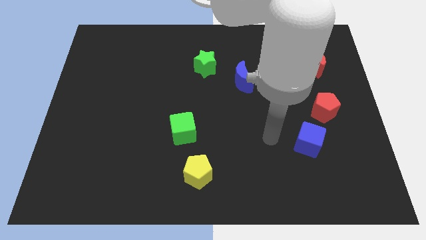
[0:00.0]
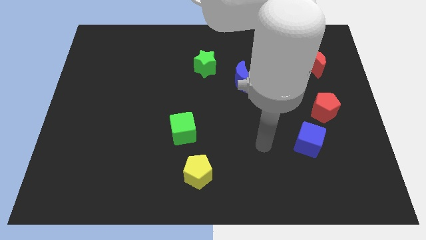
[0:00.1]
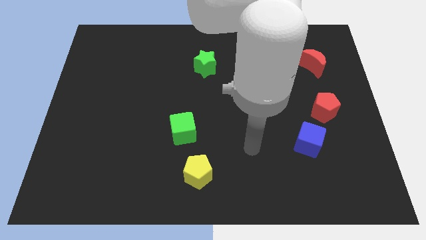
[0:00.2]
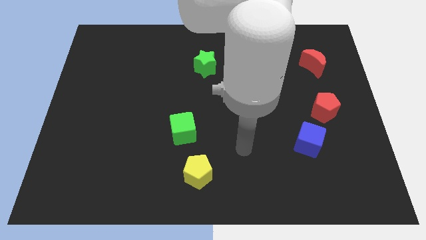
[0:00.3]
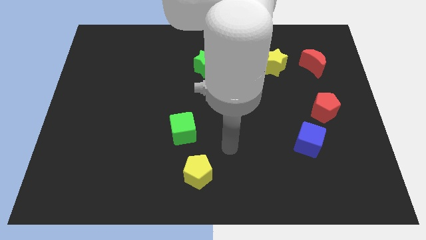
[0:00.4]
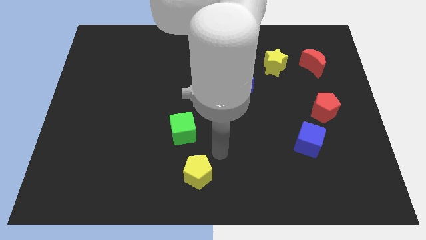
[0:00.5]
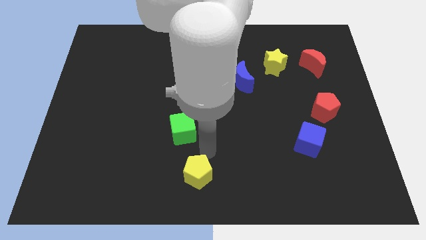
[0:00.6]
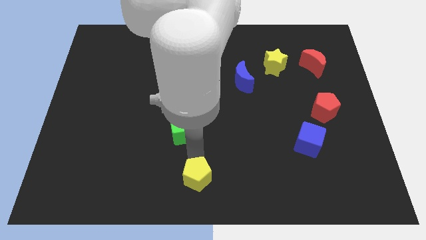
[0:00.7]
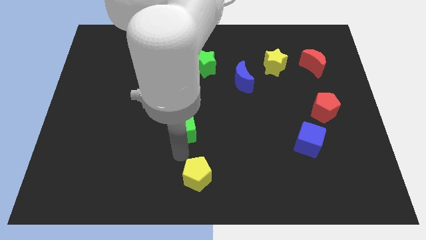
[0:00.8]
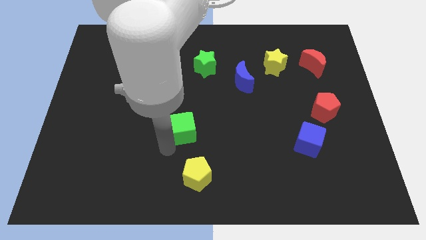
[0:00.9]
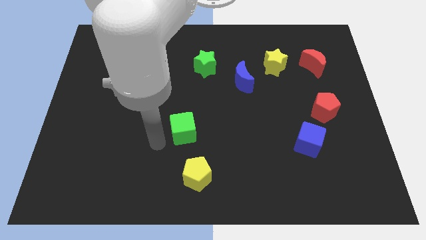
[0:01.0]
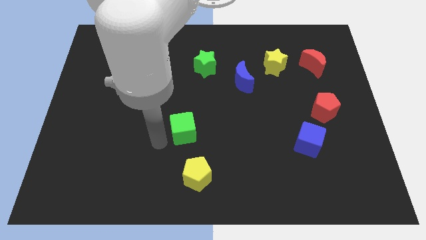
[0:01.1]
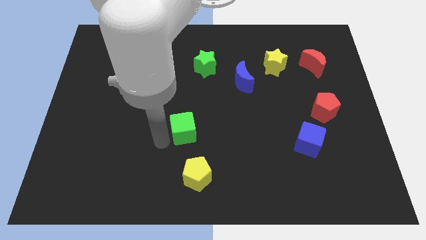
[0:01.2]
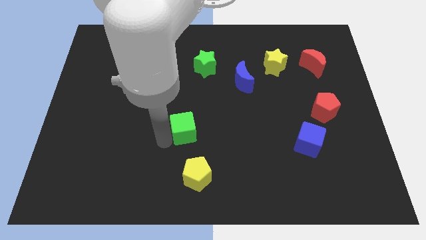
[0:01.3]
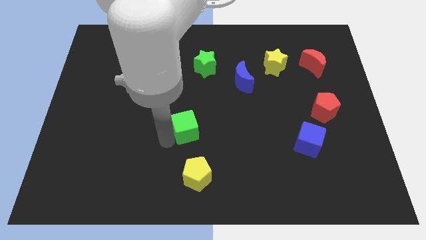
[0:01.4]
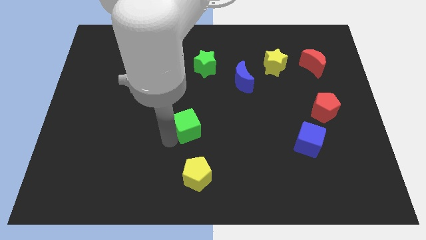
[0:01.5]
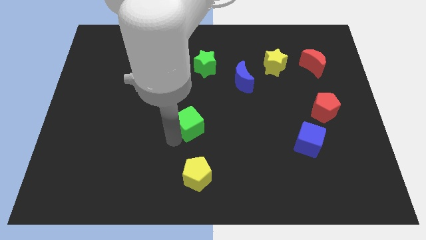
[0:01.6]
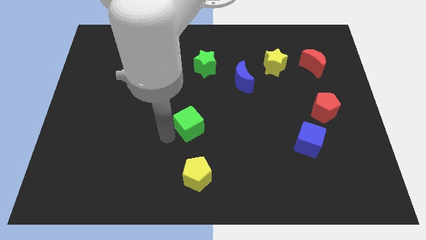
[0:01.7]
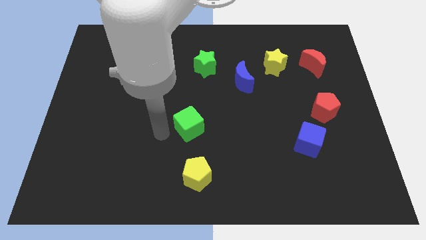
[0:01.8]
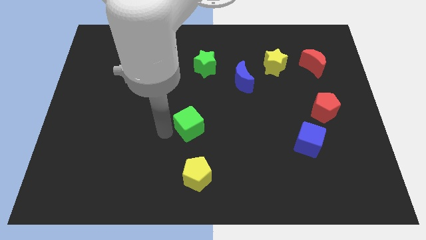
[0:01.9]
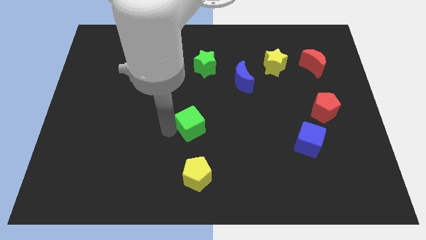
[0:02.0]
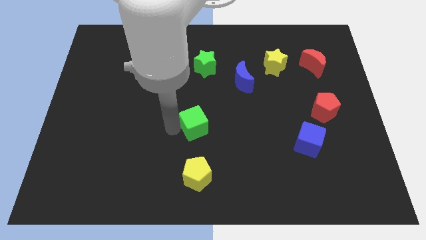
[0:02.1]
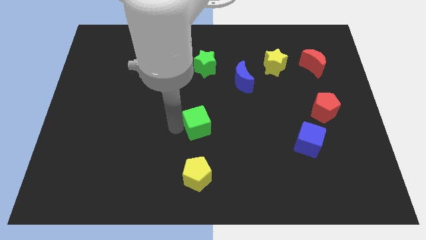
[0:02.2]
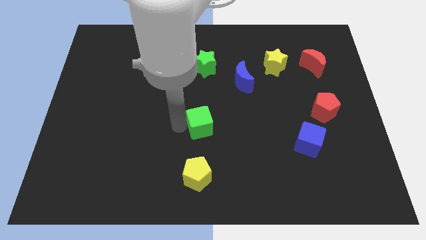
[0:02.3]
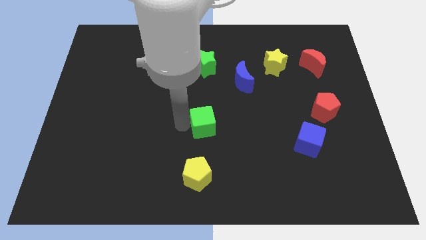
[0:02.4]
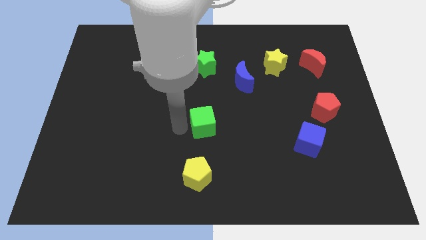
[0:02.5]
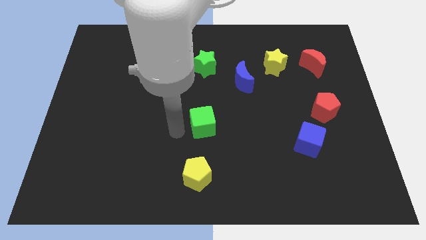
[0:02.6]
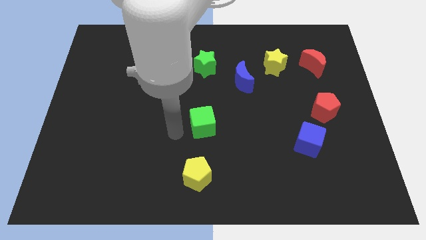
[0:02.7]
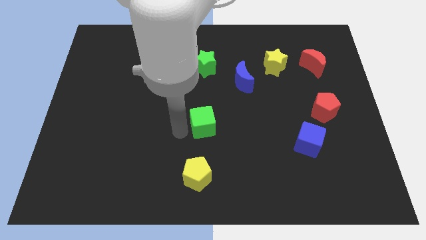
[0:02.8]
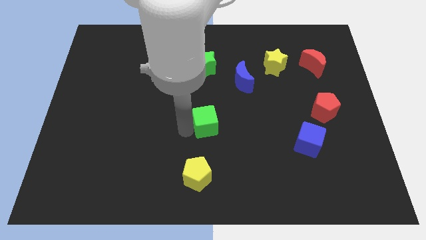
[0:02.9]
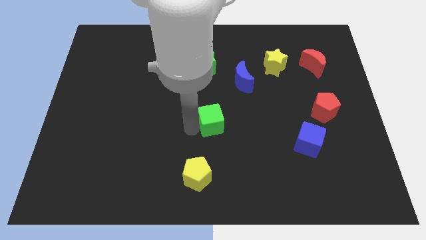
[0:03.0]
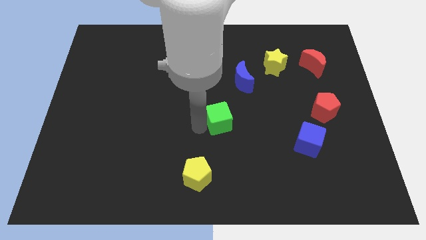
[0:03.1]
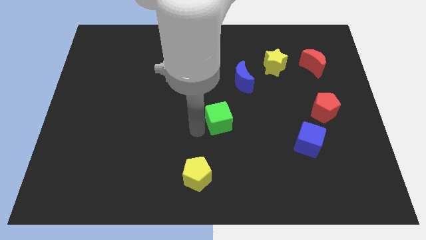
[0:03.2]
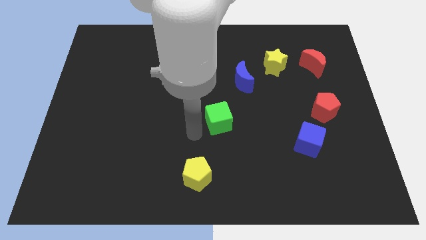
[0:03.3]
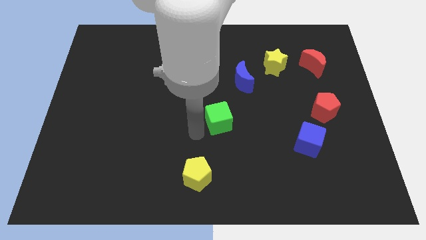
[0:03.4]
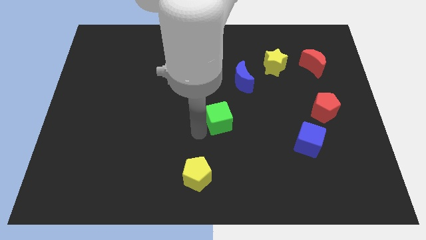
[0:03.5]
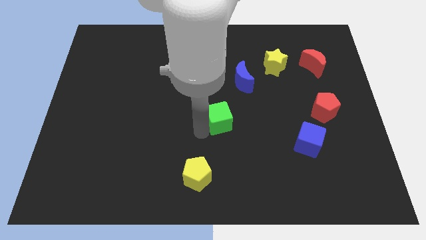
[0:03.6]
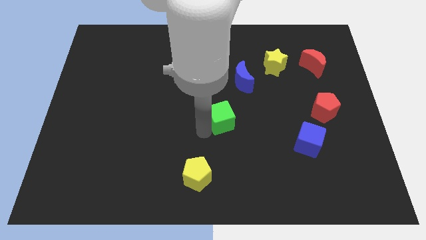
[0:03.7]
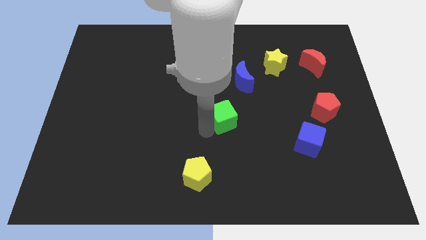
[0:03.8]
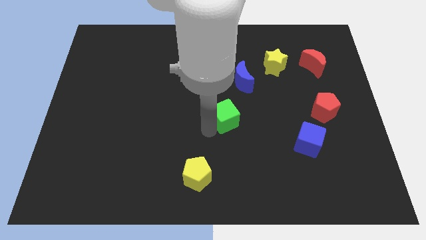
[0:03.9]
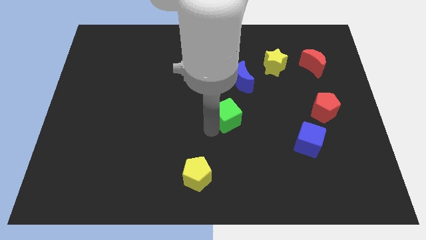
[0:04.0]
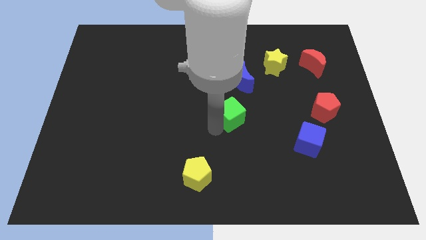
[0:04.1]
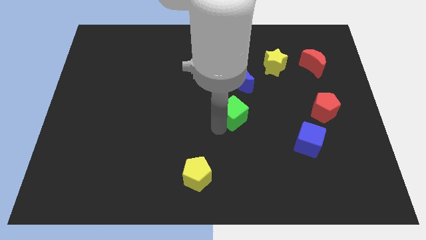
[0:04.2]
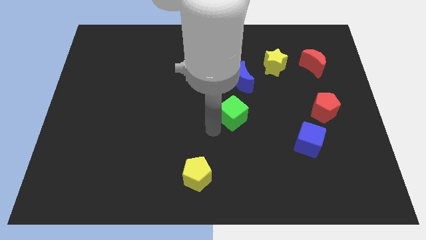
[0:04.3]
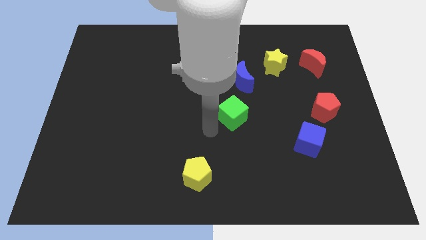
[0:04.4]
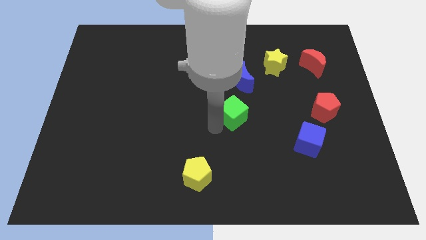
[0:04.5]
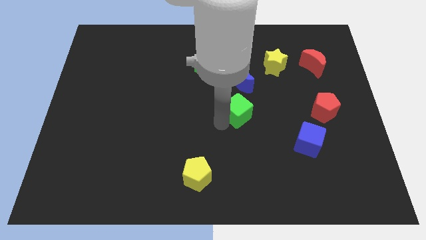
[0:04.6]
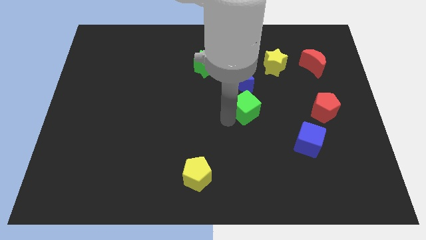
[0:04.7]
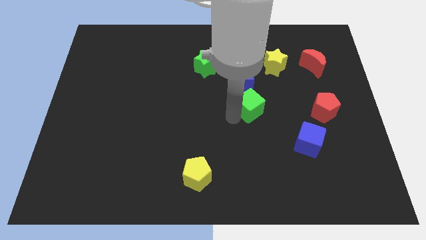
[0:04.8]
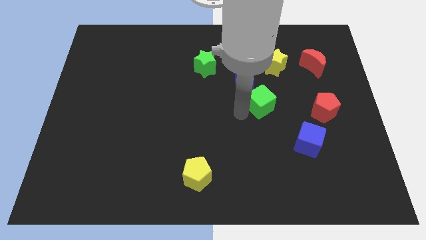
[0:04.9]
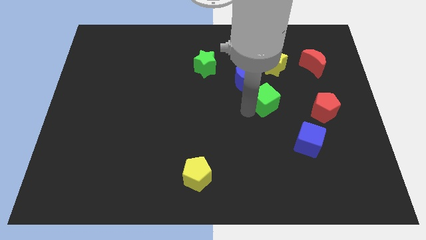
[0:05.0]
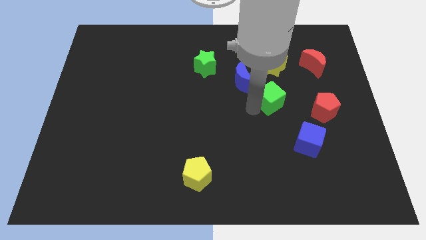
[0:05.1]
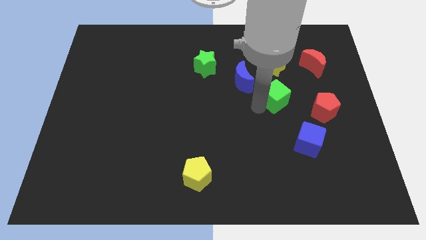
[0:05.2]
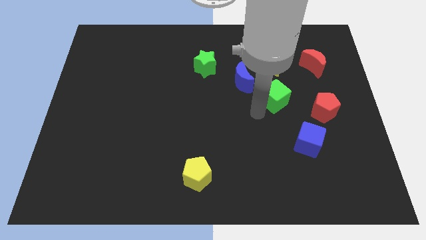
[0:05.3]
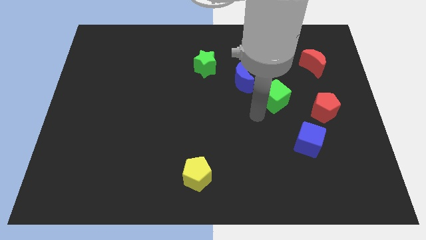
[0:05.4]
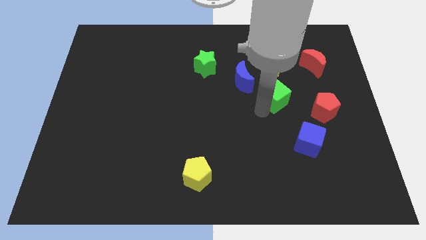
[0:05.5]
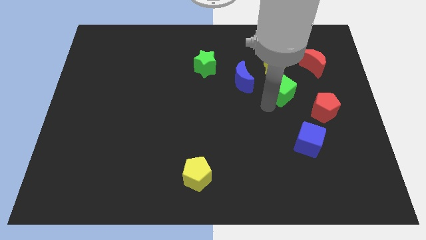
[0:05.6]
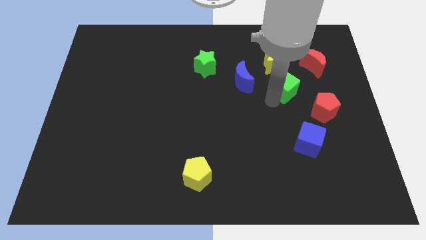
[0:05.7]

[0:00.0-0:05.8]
move the green cube to the bottom left side of the red moon

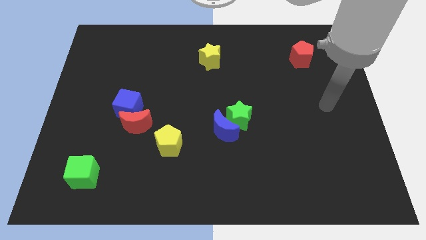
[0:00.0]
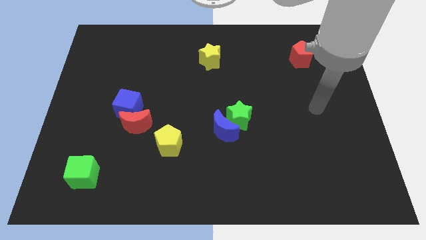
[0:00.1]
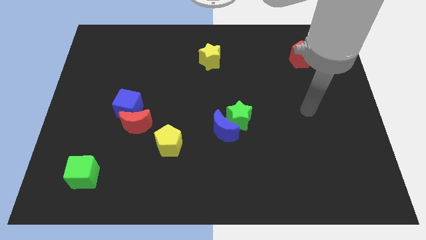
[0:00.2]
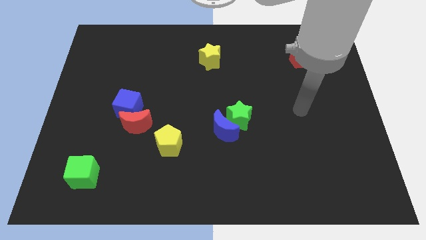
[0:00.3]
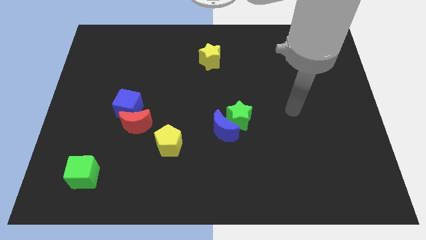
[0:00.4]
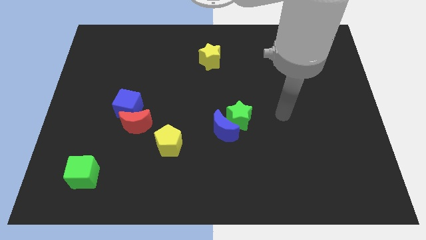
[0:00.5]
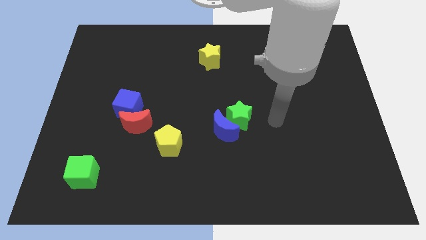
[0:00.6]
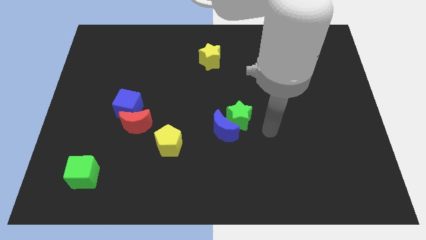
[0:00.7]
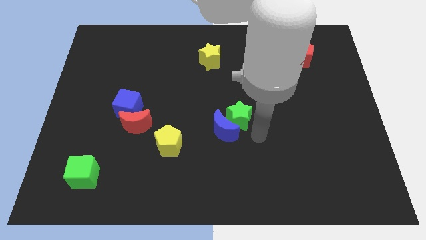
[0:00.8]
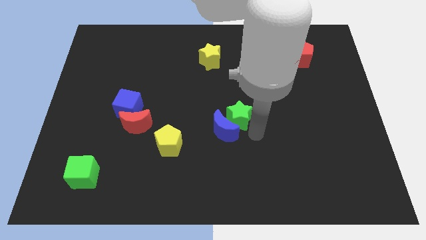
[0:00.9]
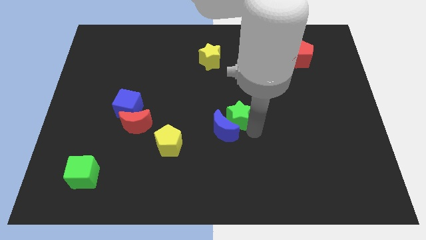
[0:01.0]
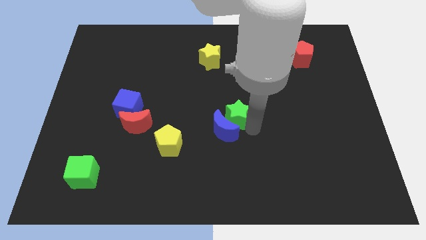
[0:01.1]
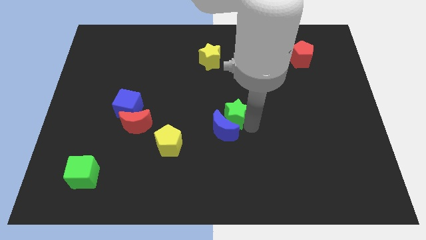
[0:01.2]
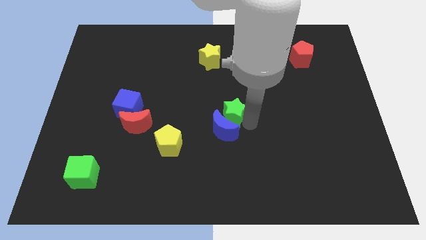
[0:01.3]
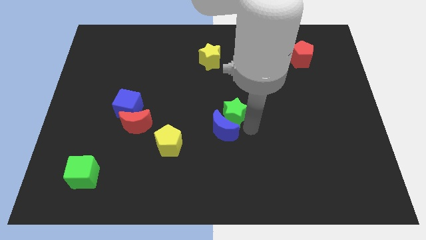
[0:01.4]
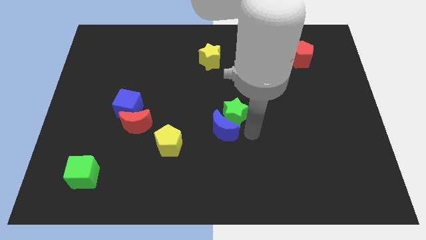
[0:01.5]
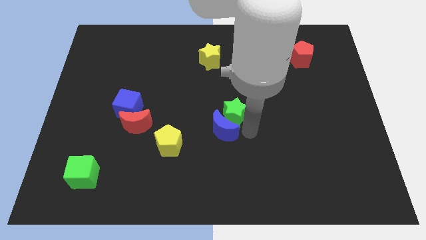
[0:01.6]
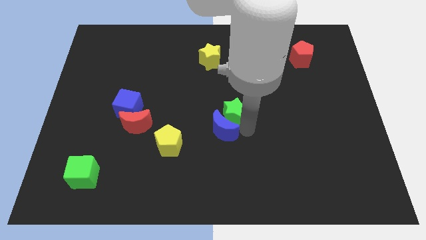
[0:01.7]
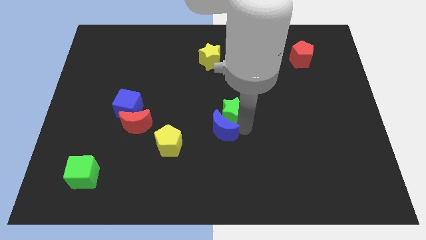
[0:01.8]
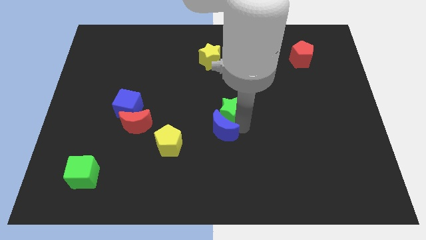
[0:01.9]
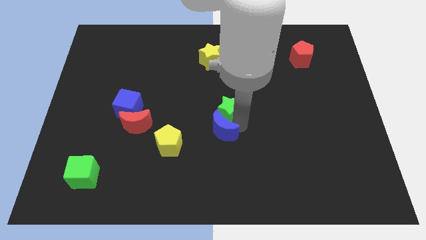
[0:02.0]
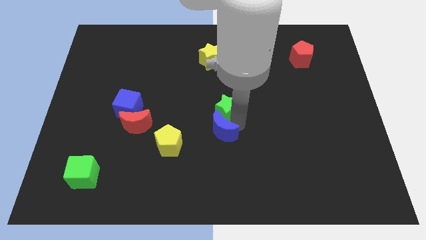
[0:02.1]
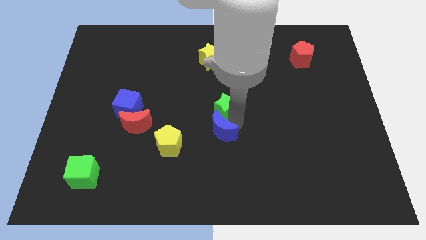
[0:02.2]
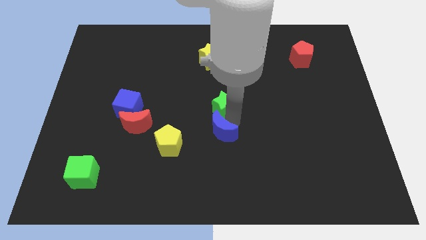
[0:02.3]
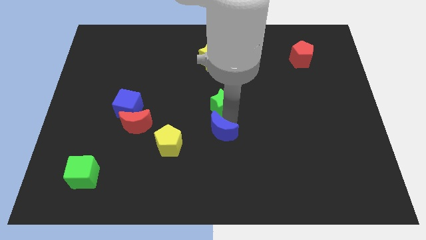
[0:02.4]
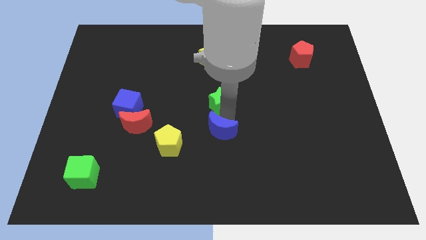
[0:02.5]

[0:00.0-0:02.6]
slide the green star to the bottom side of the yellow star
